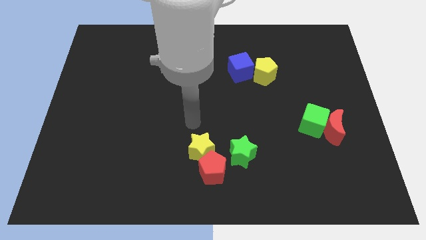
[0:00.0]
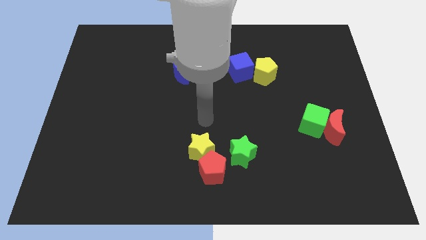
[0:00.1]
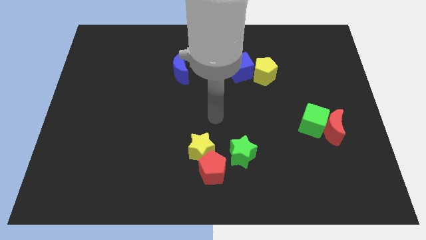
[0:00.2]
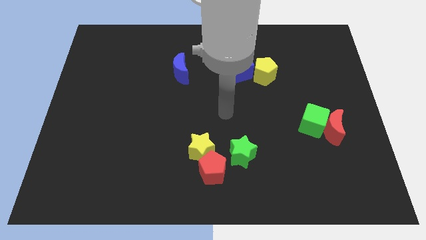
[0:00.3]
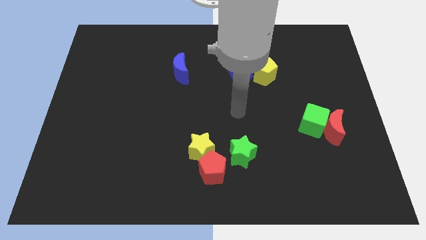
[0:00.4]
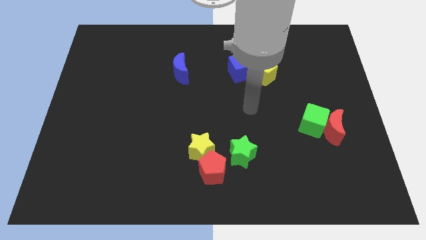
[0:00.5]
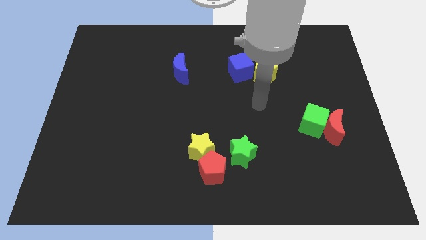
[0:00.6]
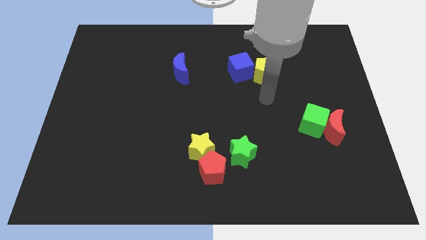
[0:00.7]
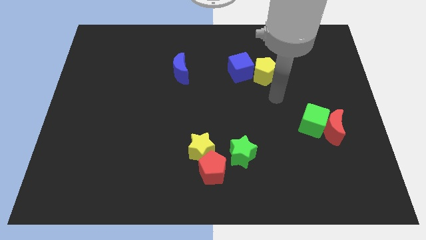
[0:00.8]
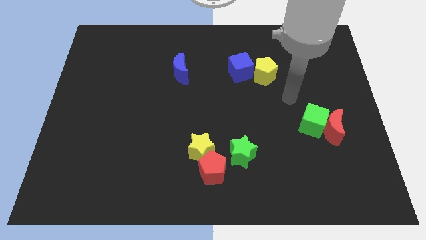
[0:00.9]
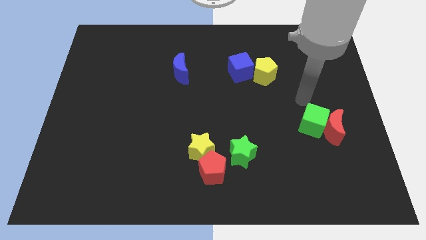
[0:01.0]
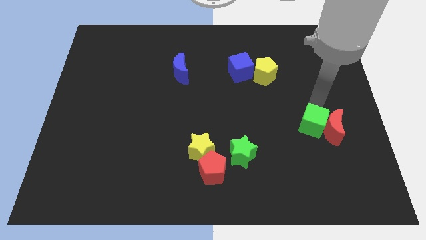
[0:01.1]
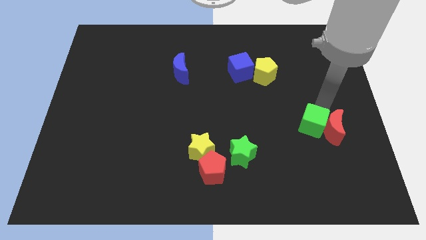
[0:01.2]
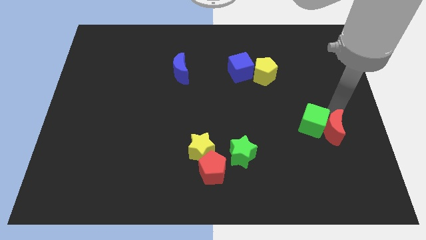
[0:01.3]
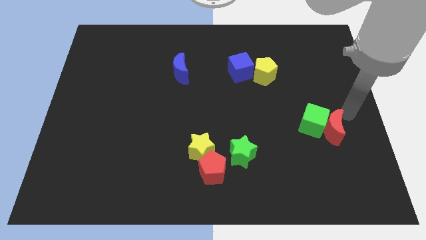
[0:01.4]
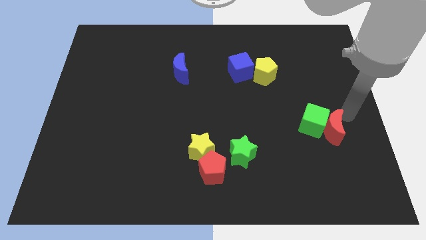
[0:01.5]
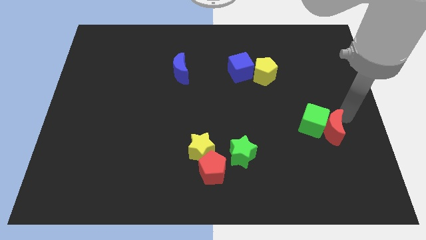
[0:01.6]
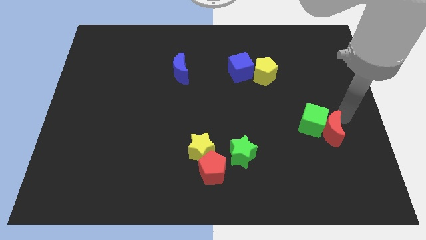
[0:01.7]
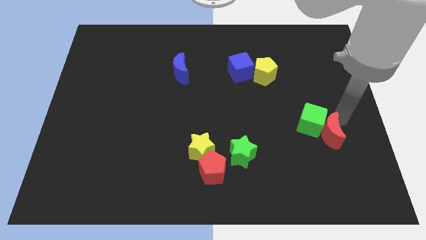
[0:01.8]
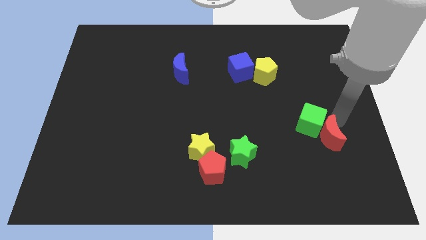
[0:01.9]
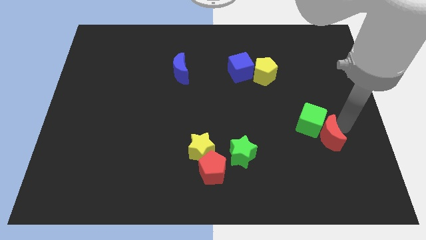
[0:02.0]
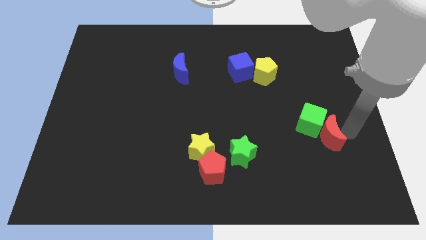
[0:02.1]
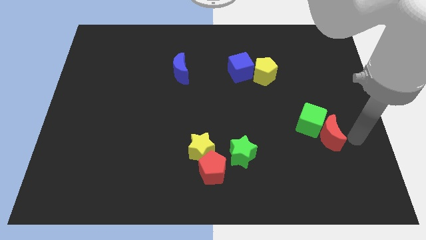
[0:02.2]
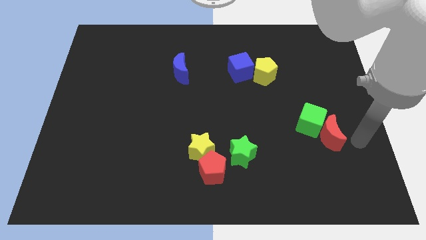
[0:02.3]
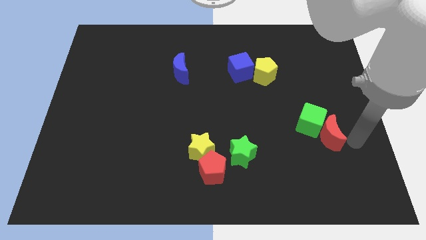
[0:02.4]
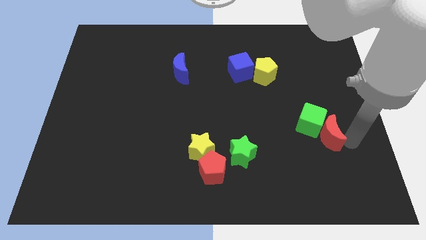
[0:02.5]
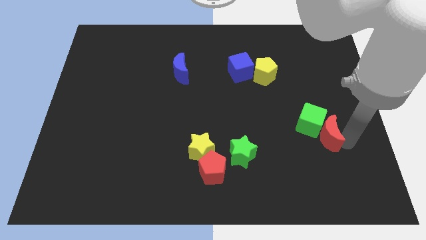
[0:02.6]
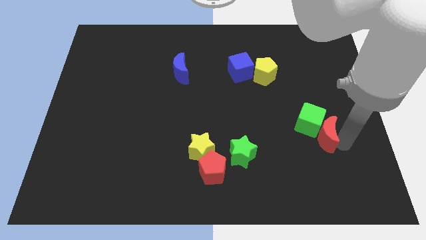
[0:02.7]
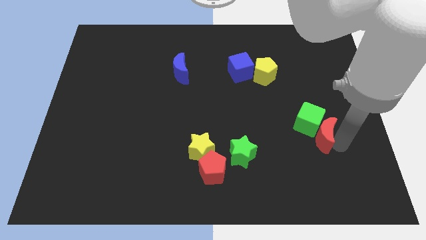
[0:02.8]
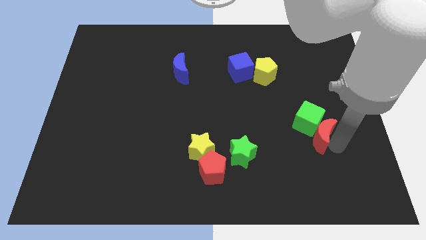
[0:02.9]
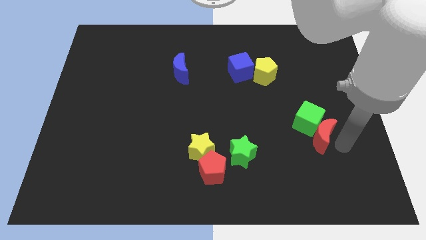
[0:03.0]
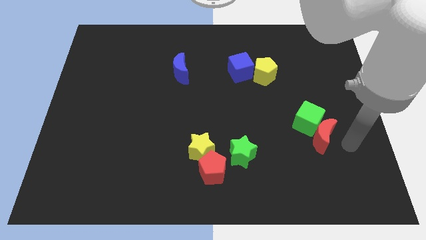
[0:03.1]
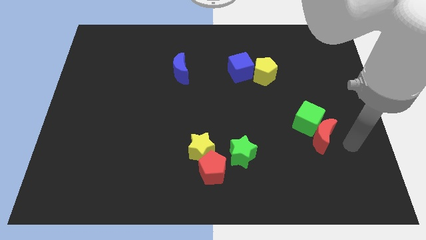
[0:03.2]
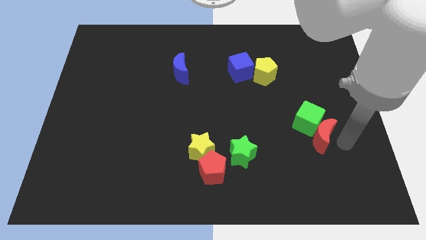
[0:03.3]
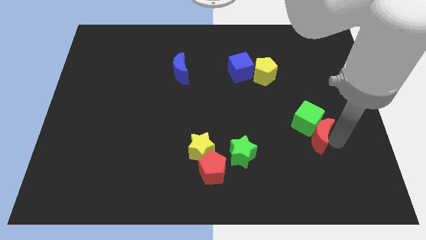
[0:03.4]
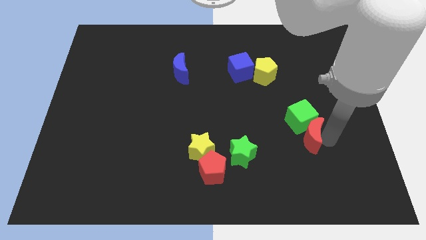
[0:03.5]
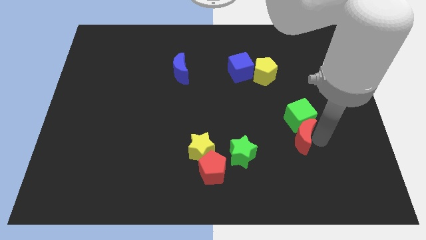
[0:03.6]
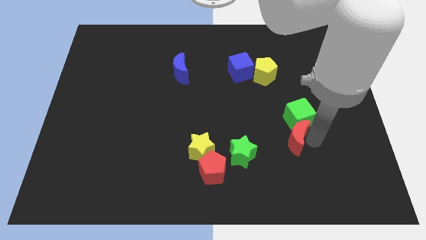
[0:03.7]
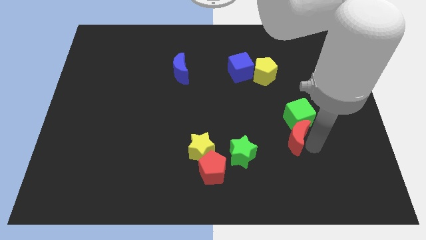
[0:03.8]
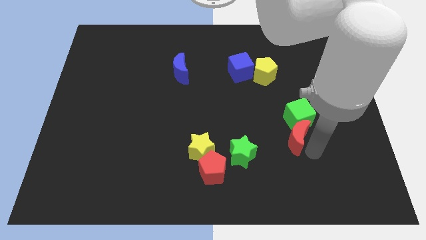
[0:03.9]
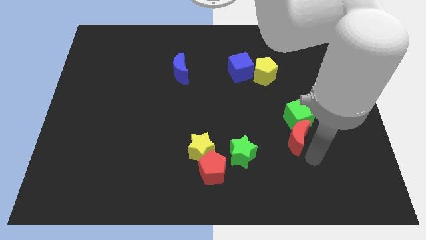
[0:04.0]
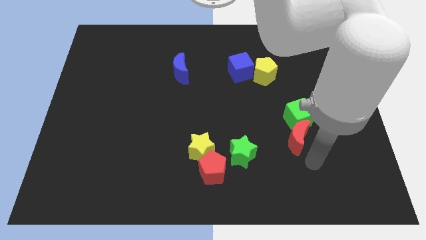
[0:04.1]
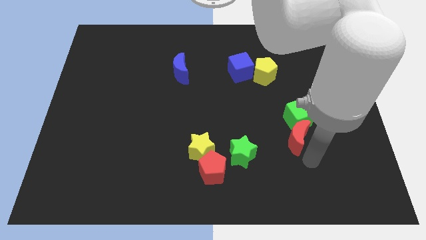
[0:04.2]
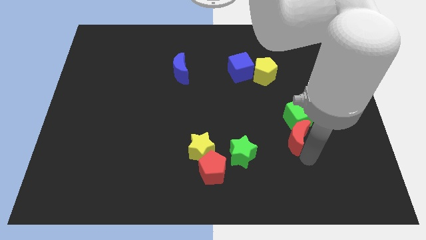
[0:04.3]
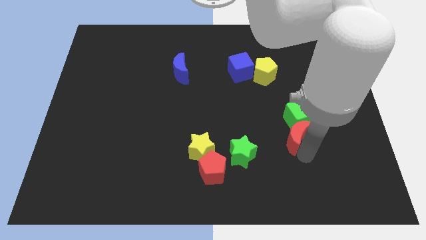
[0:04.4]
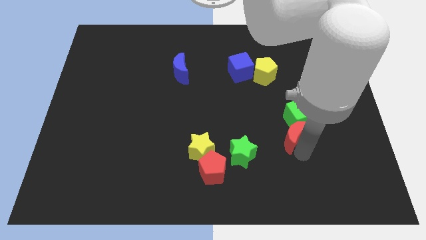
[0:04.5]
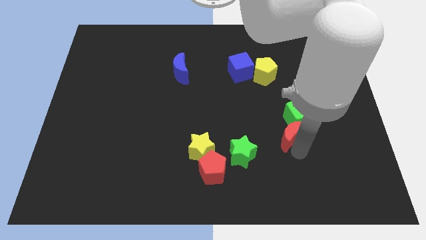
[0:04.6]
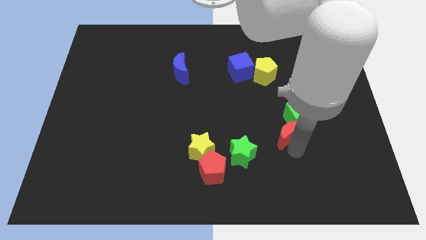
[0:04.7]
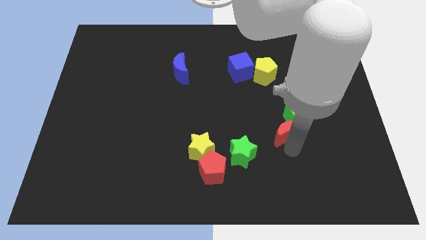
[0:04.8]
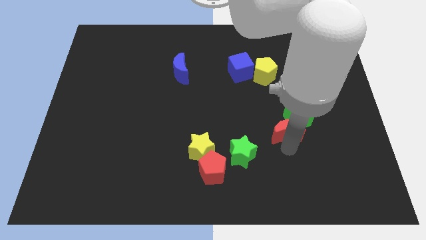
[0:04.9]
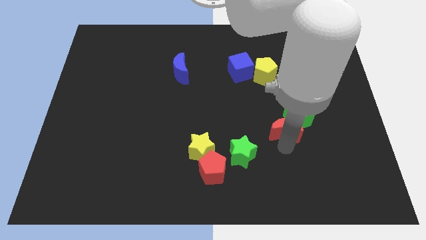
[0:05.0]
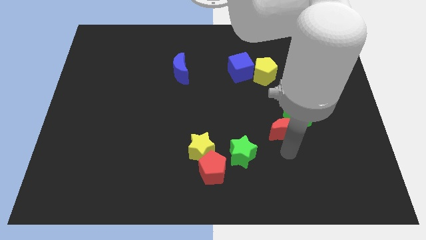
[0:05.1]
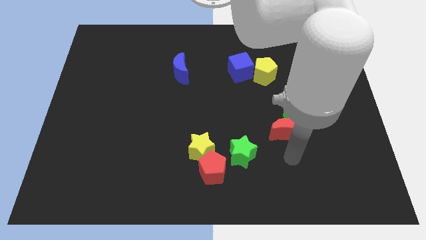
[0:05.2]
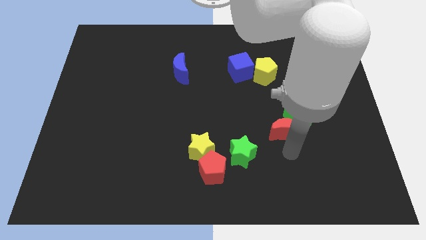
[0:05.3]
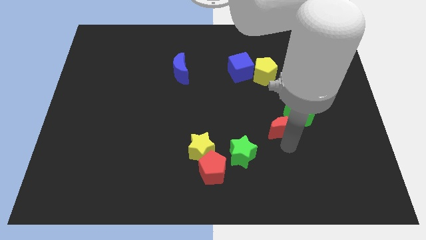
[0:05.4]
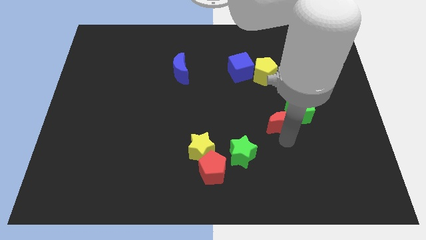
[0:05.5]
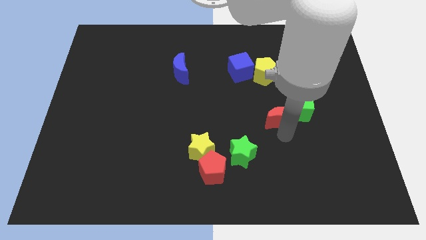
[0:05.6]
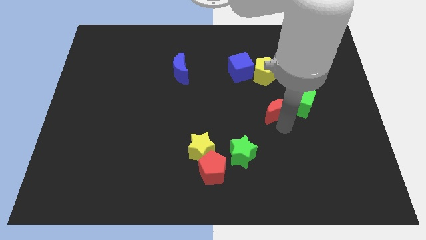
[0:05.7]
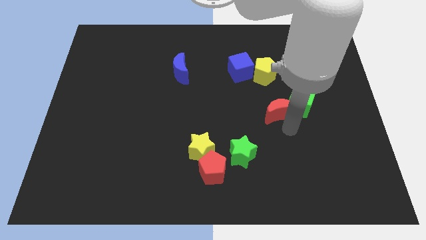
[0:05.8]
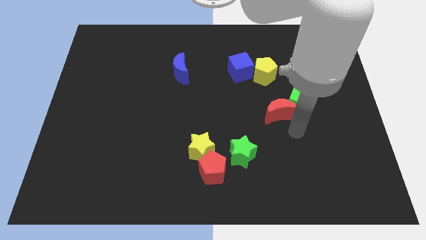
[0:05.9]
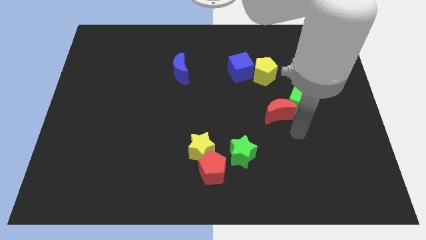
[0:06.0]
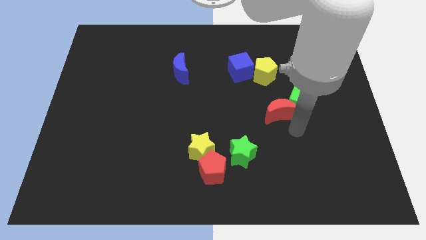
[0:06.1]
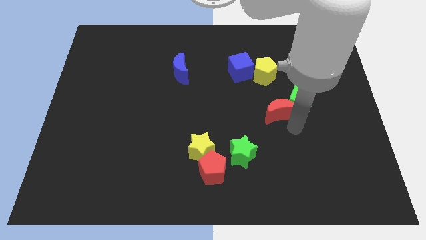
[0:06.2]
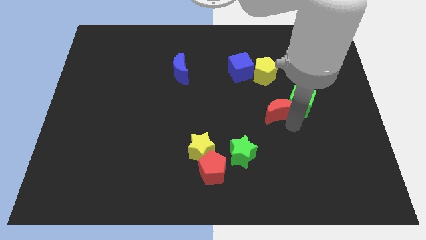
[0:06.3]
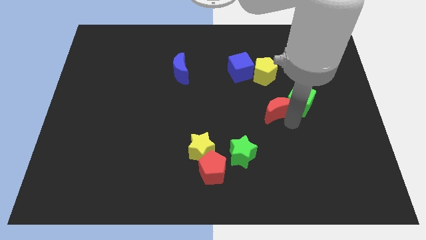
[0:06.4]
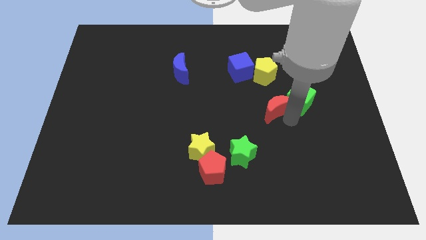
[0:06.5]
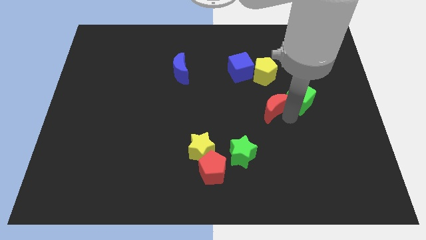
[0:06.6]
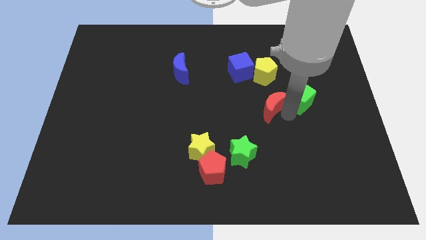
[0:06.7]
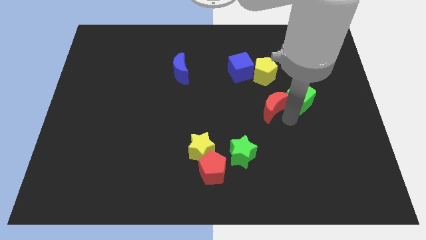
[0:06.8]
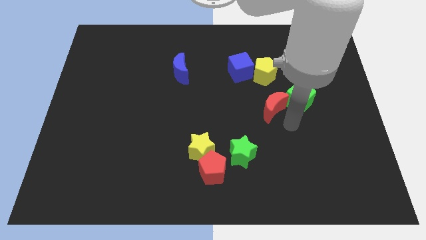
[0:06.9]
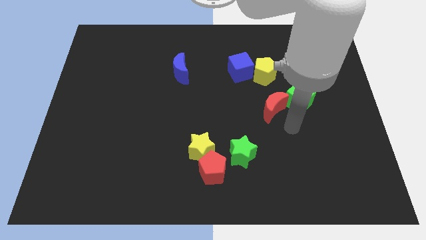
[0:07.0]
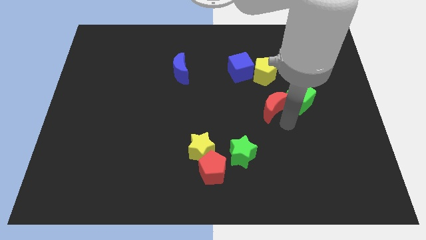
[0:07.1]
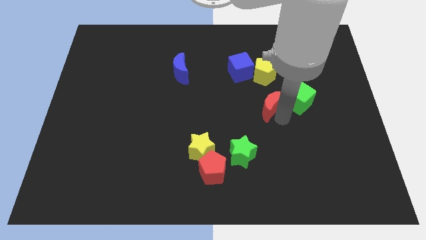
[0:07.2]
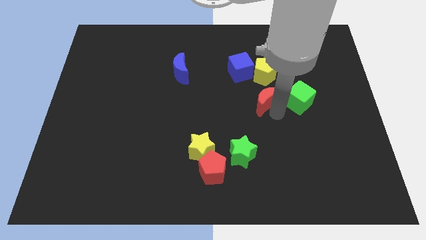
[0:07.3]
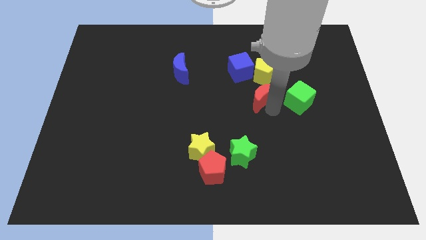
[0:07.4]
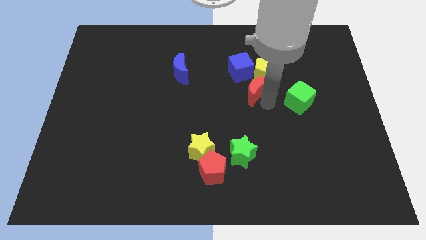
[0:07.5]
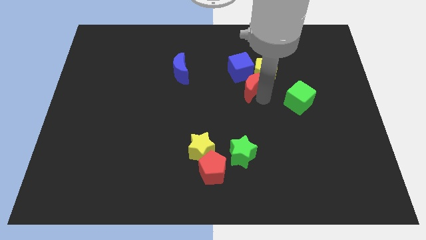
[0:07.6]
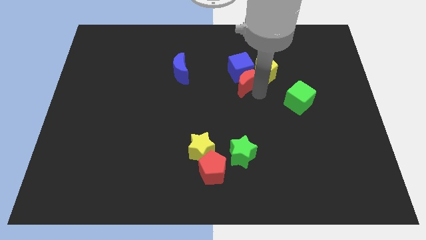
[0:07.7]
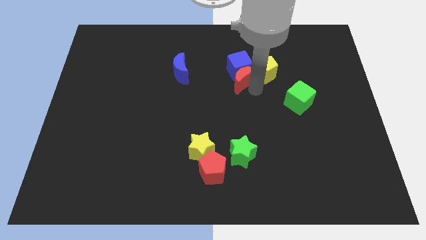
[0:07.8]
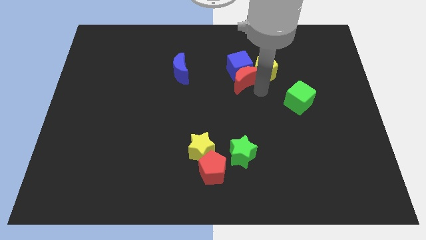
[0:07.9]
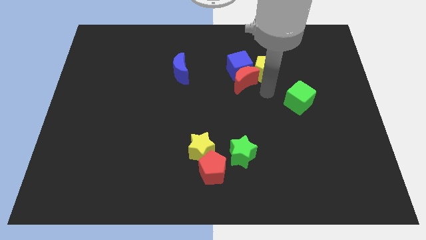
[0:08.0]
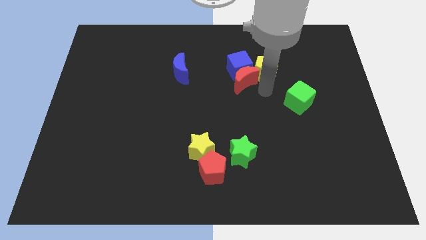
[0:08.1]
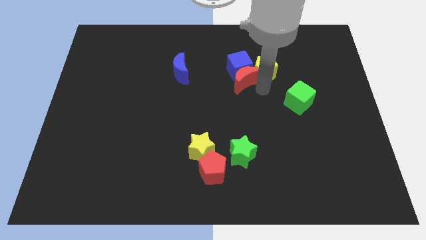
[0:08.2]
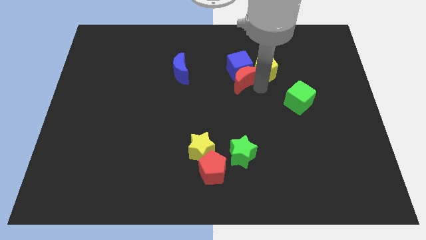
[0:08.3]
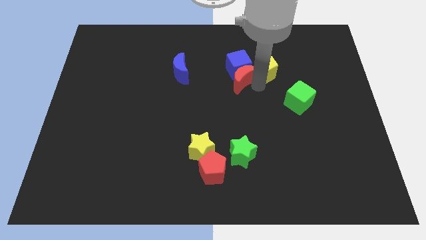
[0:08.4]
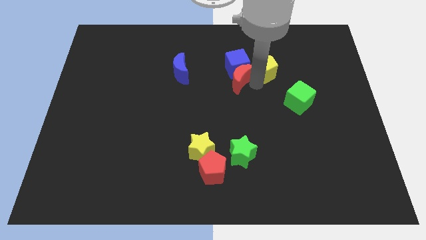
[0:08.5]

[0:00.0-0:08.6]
push the red moon just right of the blue moon
